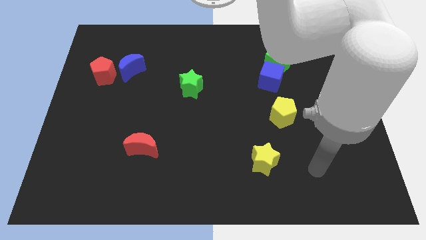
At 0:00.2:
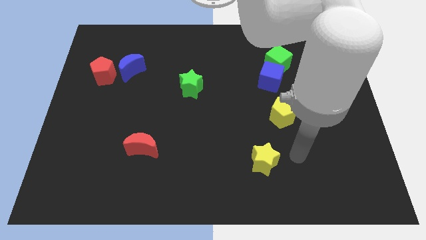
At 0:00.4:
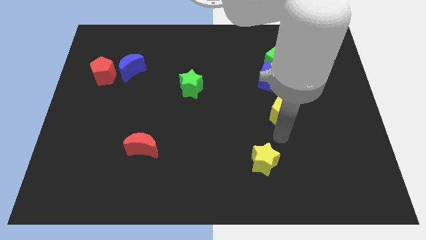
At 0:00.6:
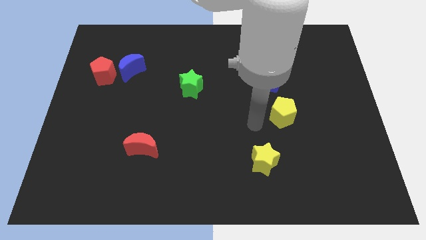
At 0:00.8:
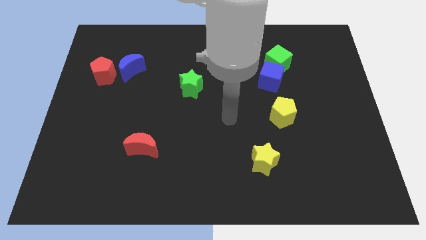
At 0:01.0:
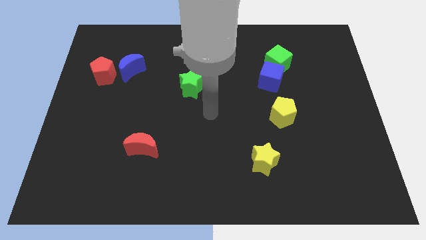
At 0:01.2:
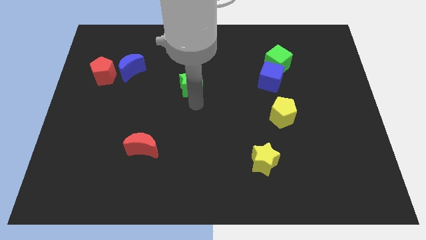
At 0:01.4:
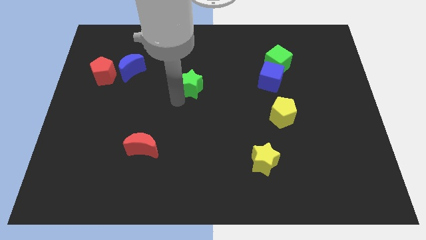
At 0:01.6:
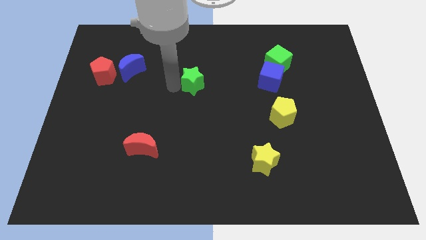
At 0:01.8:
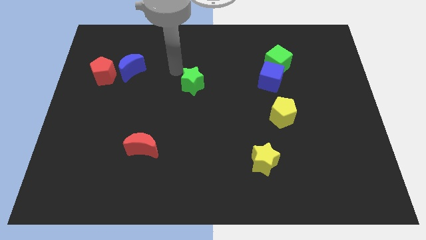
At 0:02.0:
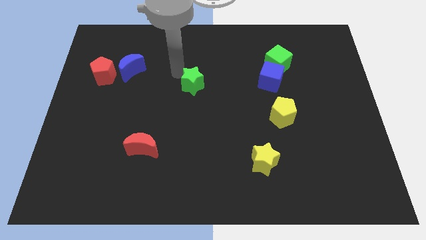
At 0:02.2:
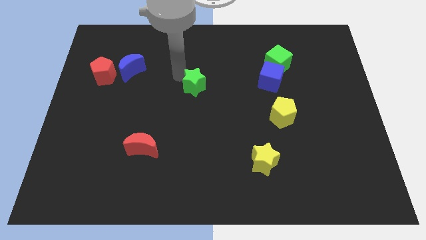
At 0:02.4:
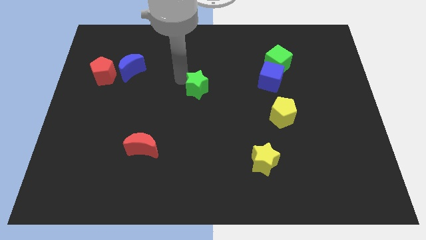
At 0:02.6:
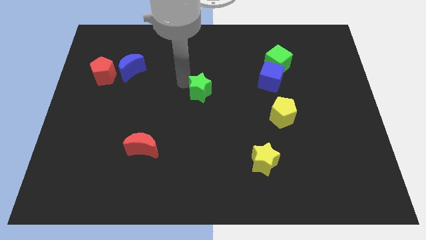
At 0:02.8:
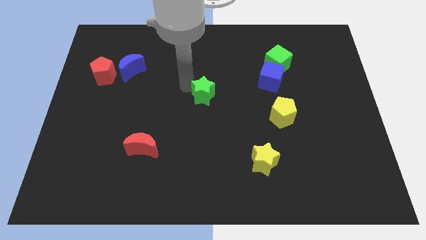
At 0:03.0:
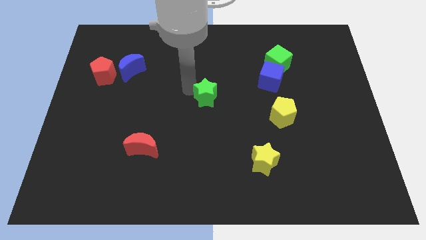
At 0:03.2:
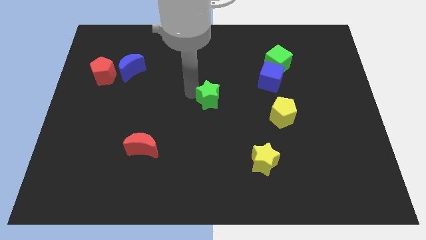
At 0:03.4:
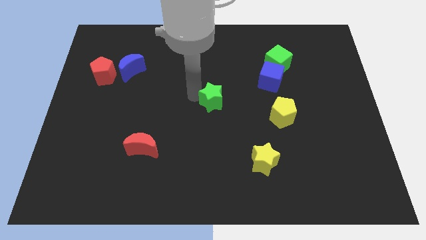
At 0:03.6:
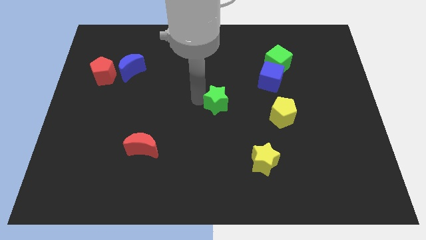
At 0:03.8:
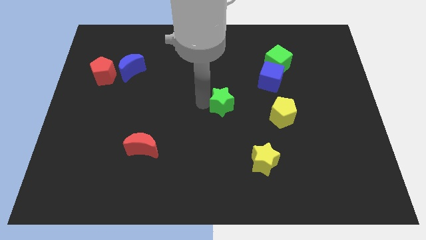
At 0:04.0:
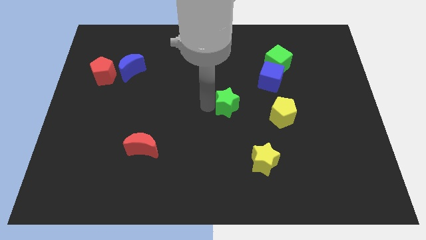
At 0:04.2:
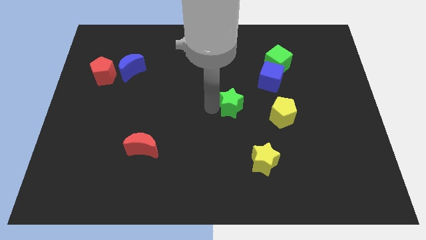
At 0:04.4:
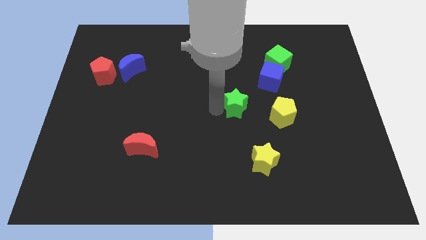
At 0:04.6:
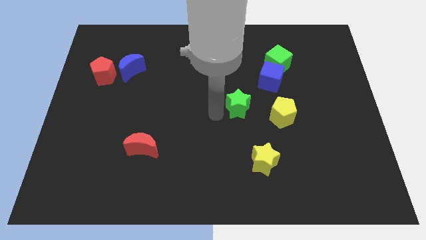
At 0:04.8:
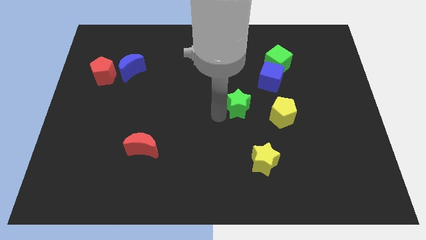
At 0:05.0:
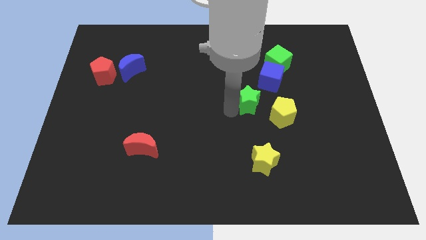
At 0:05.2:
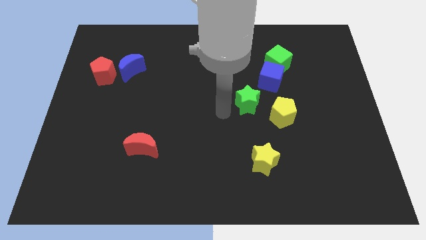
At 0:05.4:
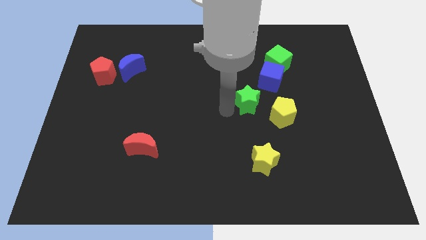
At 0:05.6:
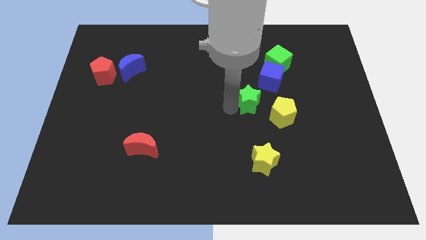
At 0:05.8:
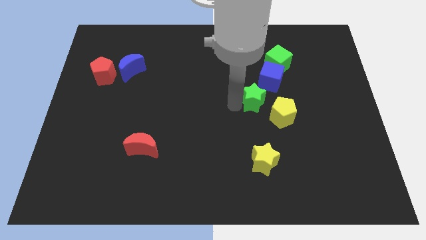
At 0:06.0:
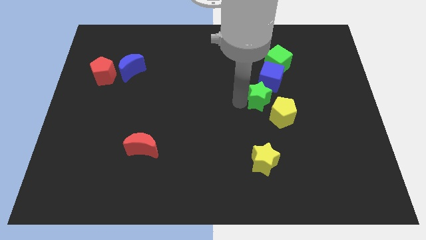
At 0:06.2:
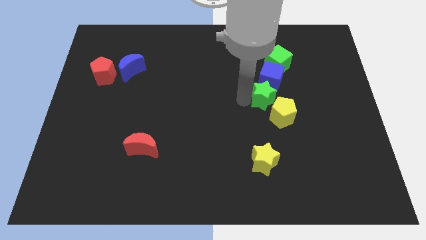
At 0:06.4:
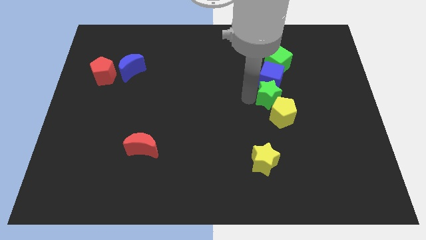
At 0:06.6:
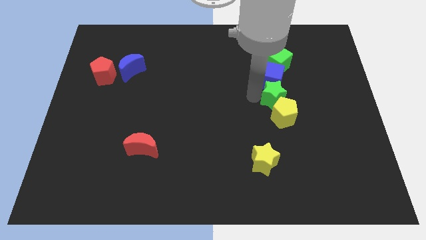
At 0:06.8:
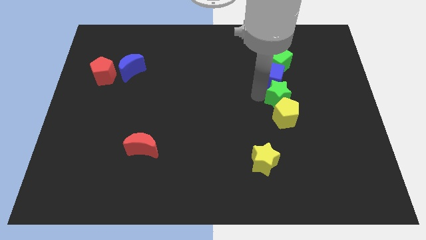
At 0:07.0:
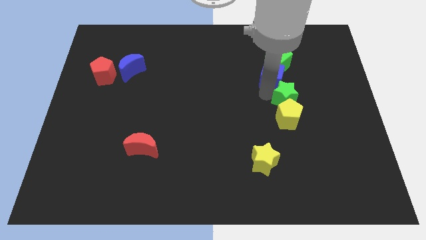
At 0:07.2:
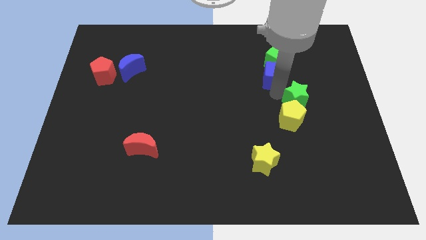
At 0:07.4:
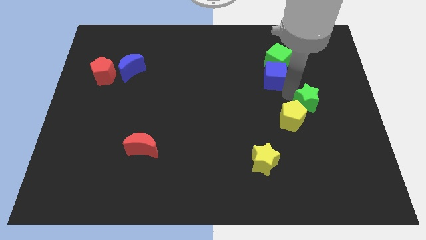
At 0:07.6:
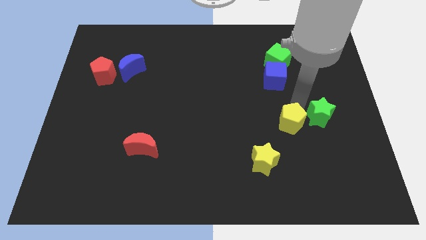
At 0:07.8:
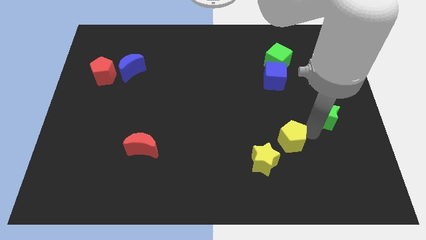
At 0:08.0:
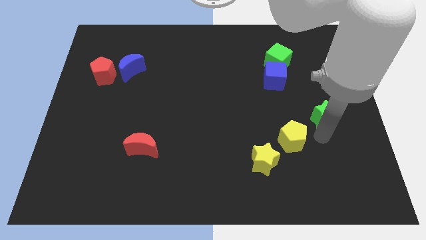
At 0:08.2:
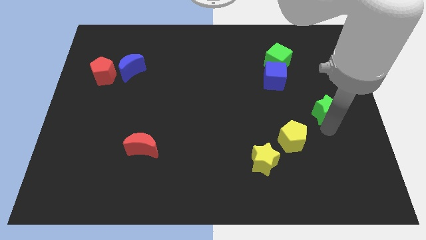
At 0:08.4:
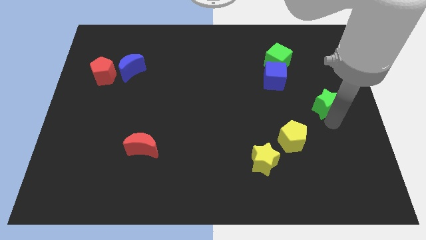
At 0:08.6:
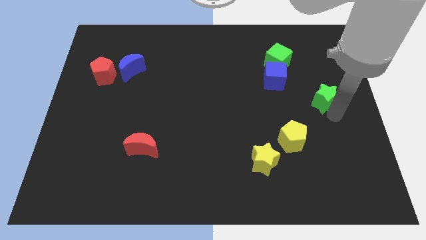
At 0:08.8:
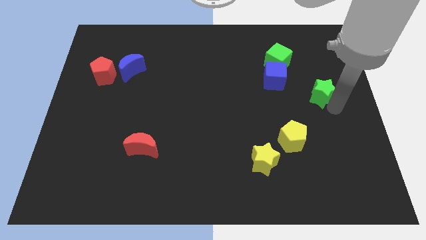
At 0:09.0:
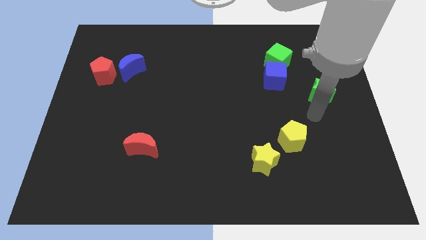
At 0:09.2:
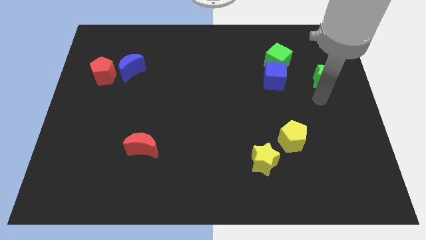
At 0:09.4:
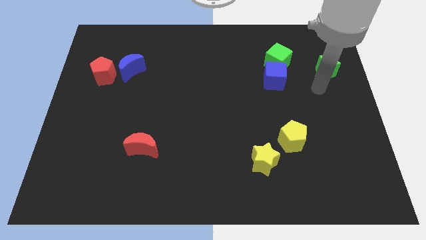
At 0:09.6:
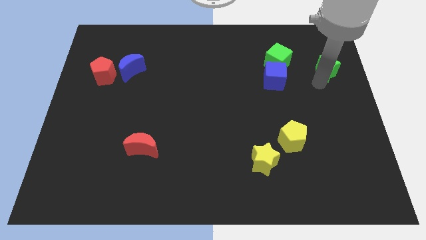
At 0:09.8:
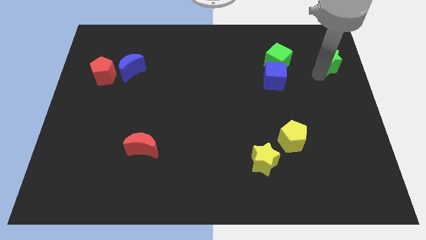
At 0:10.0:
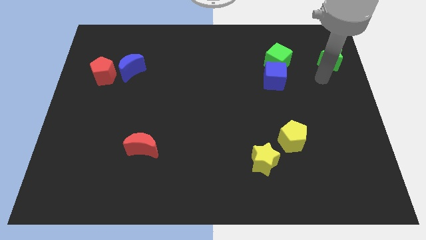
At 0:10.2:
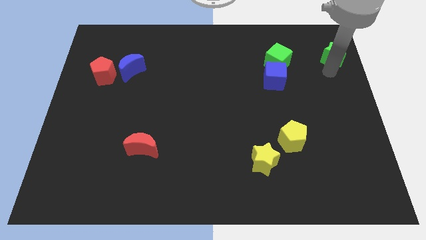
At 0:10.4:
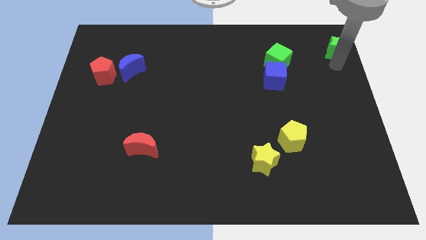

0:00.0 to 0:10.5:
push the green star to the top right corner

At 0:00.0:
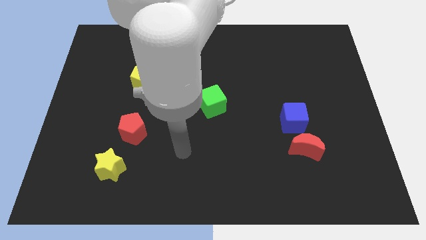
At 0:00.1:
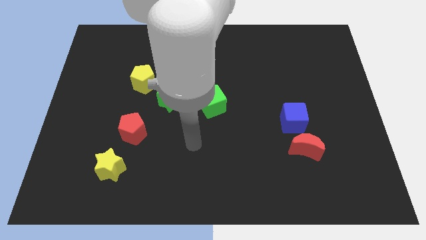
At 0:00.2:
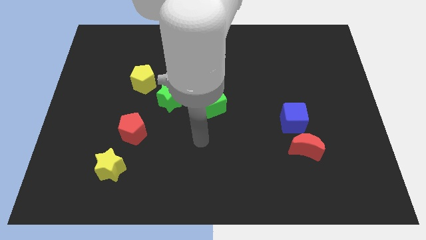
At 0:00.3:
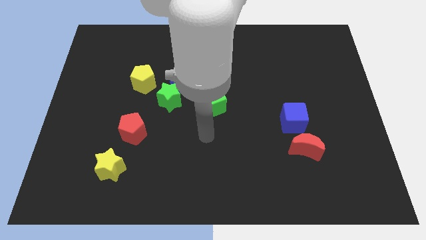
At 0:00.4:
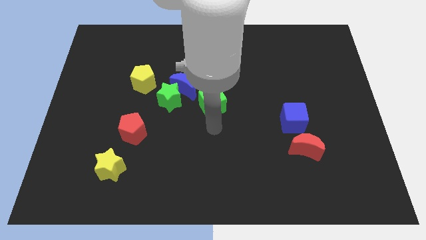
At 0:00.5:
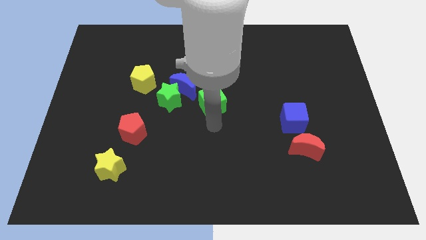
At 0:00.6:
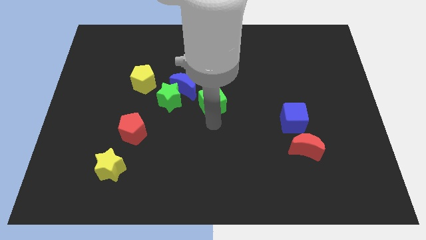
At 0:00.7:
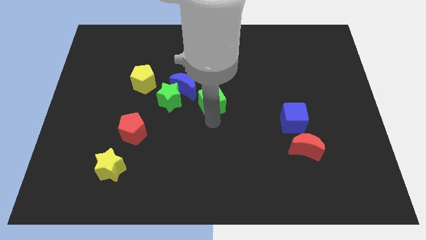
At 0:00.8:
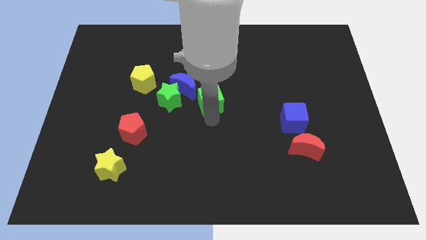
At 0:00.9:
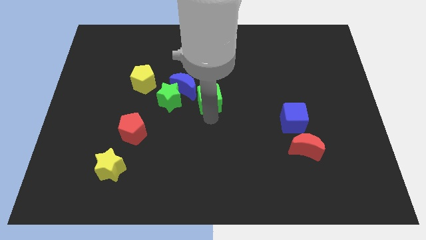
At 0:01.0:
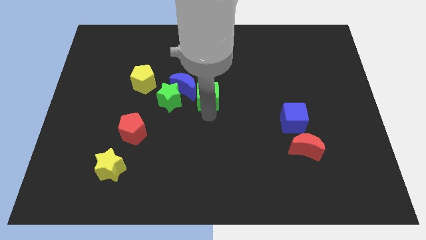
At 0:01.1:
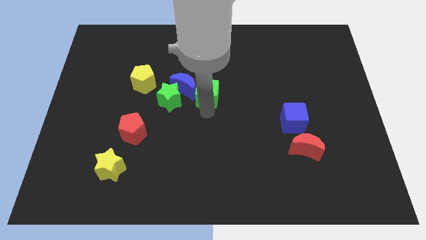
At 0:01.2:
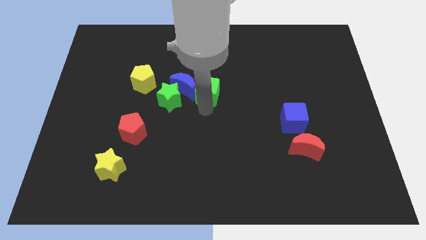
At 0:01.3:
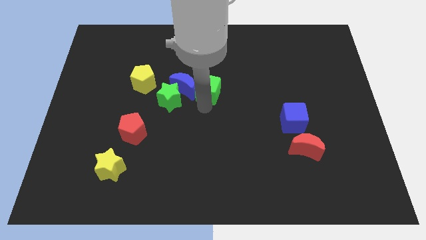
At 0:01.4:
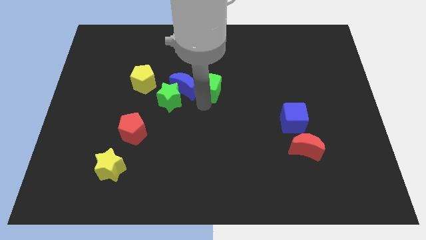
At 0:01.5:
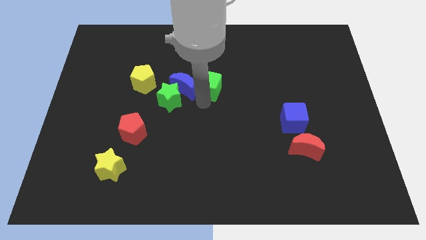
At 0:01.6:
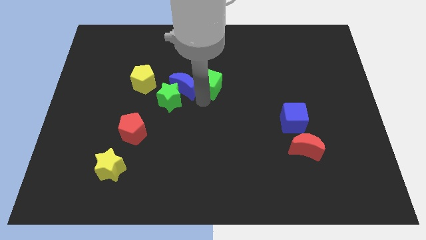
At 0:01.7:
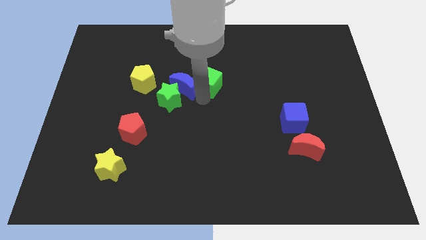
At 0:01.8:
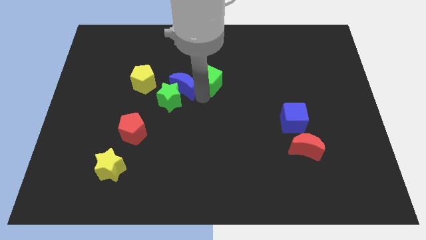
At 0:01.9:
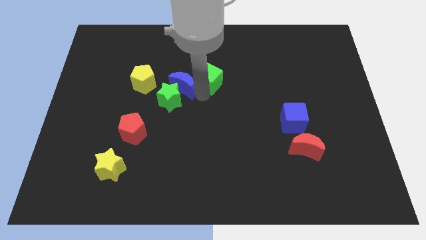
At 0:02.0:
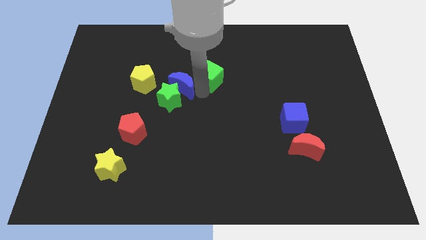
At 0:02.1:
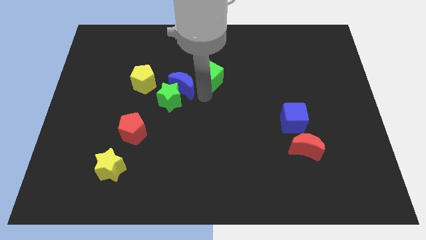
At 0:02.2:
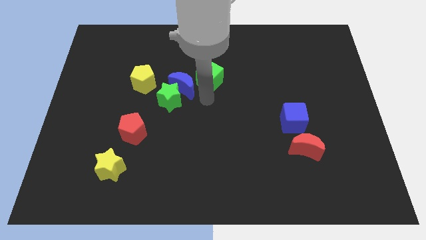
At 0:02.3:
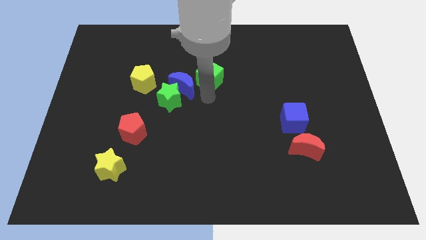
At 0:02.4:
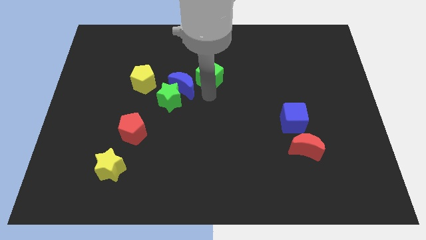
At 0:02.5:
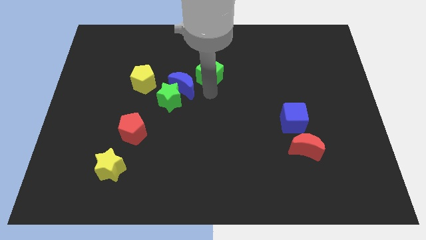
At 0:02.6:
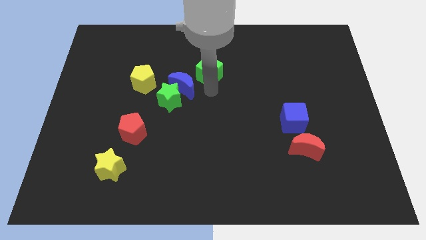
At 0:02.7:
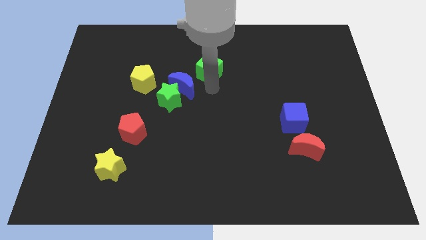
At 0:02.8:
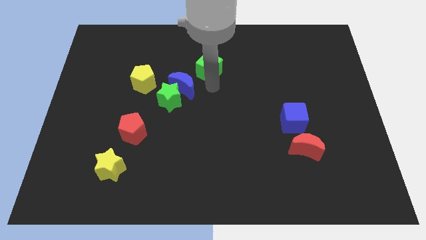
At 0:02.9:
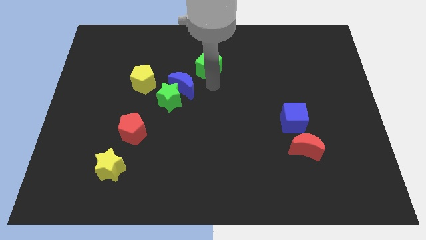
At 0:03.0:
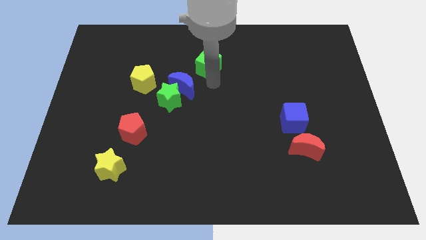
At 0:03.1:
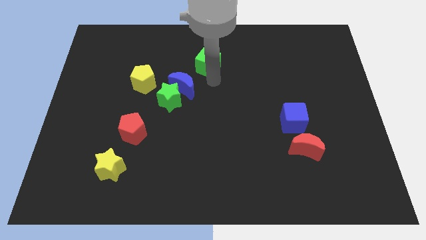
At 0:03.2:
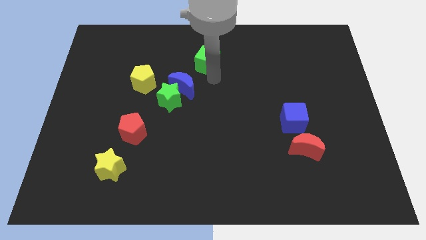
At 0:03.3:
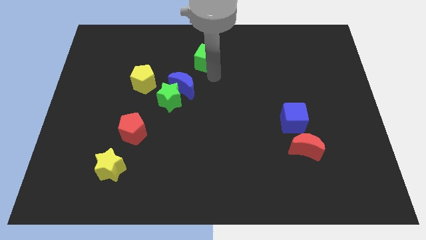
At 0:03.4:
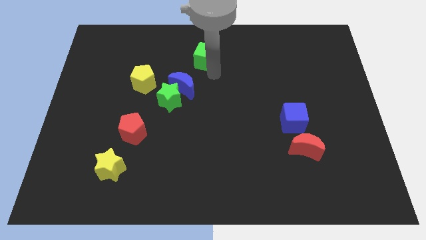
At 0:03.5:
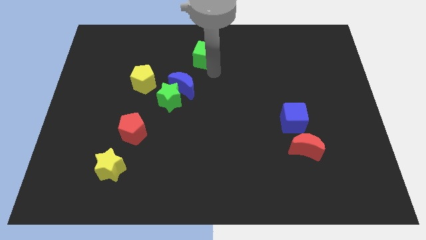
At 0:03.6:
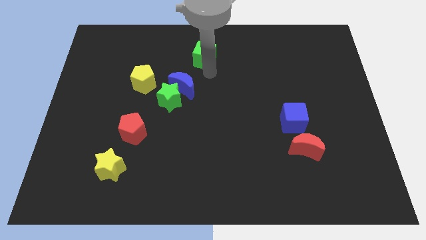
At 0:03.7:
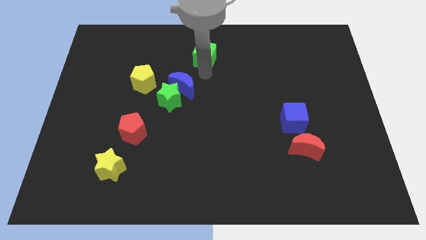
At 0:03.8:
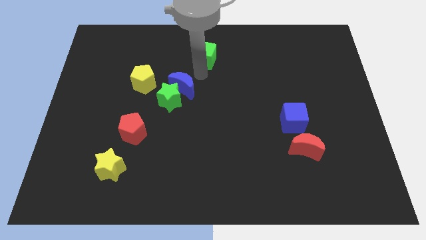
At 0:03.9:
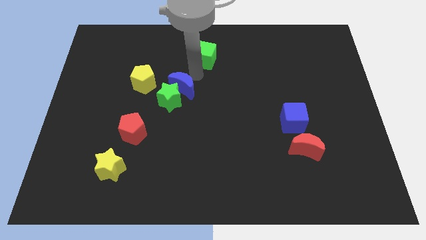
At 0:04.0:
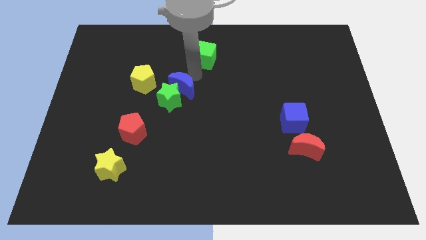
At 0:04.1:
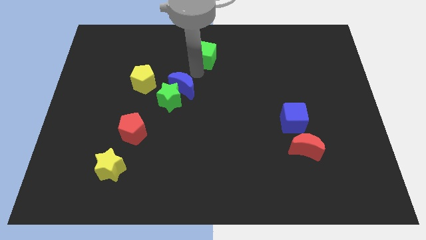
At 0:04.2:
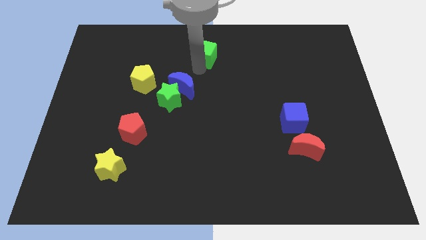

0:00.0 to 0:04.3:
put the green cube to the top
